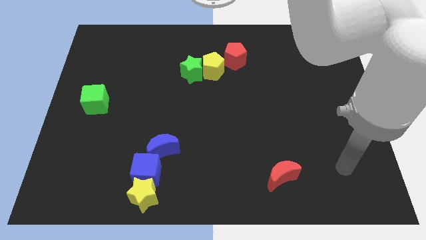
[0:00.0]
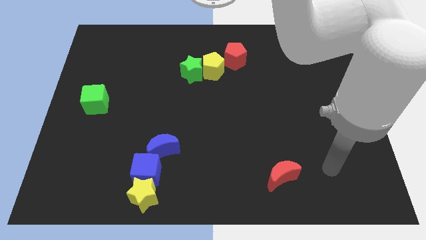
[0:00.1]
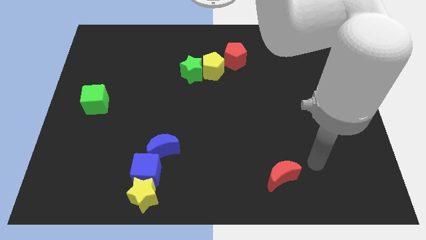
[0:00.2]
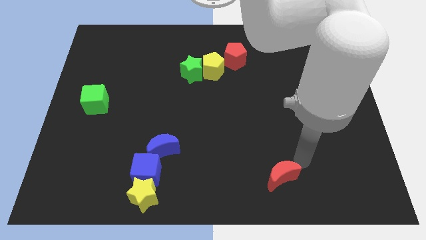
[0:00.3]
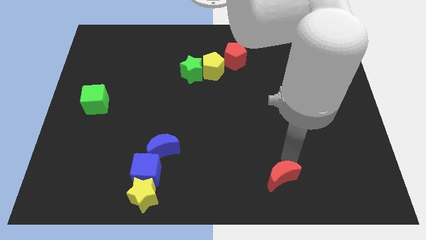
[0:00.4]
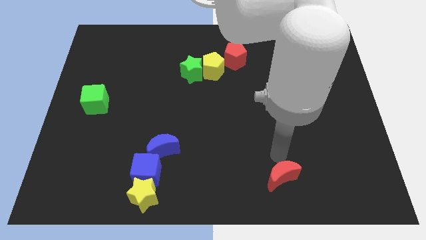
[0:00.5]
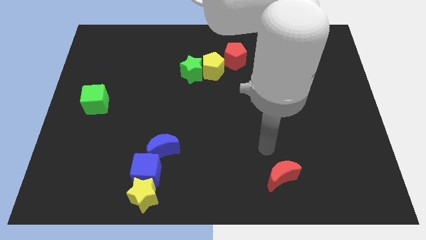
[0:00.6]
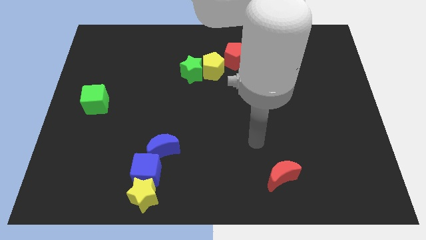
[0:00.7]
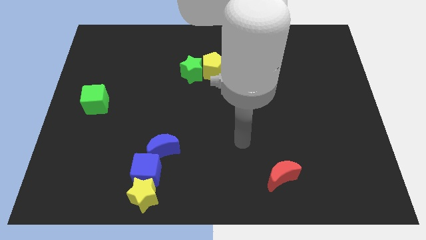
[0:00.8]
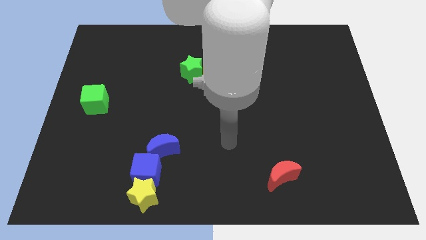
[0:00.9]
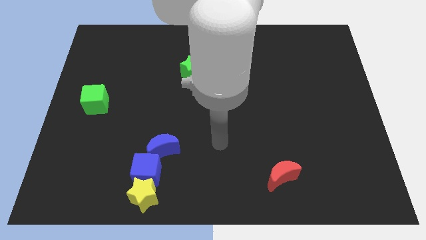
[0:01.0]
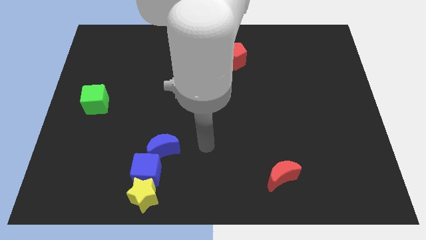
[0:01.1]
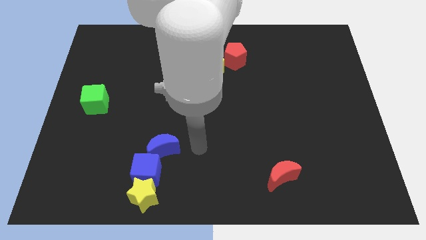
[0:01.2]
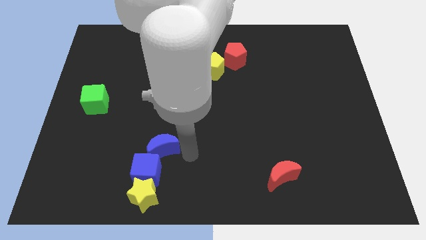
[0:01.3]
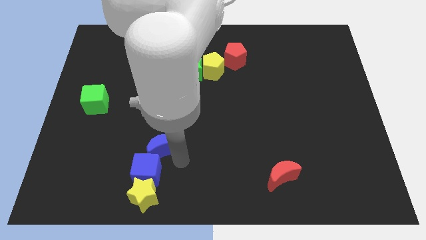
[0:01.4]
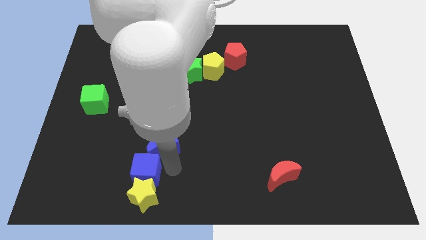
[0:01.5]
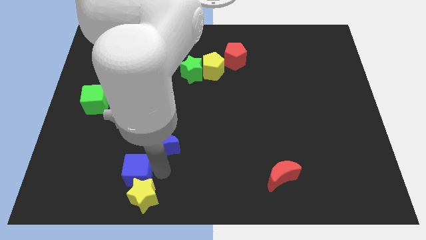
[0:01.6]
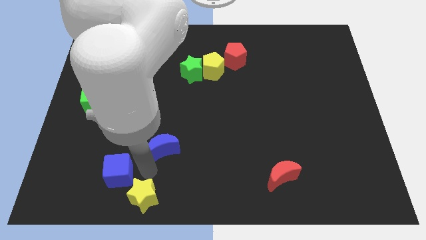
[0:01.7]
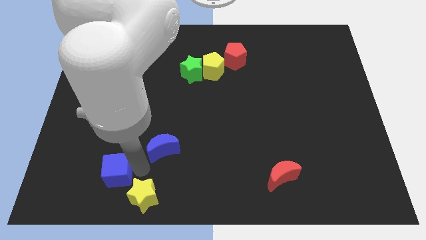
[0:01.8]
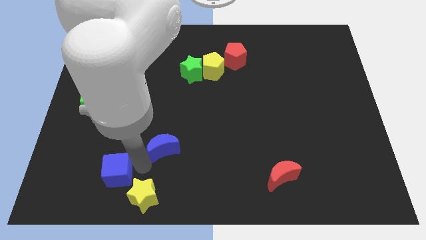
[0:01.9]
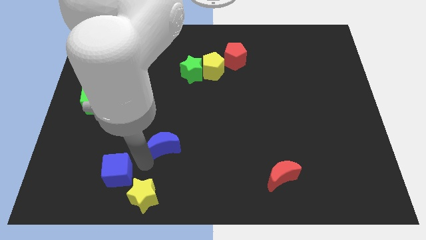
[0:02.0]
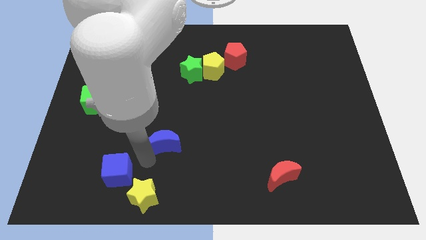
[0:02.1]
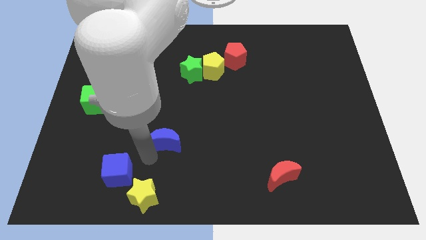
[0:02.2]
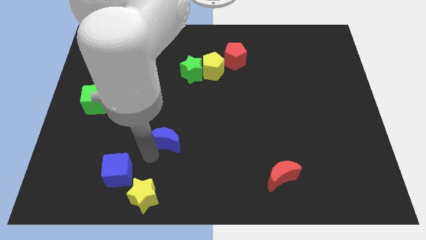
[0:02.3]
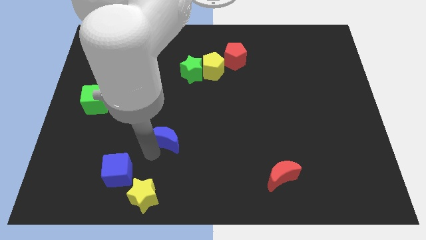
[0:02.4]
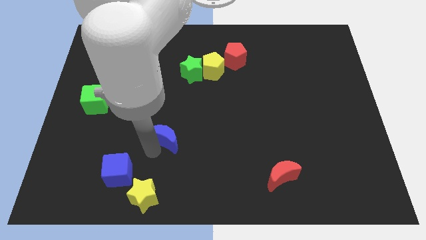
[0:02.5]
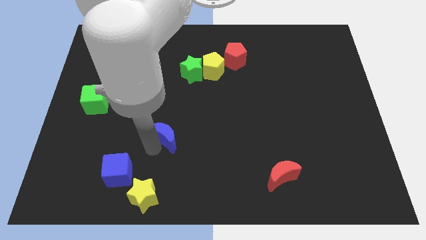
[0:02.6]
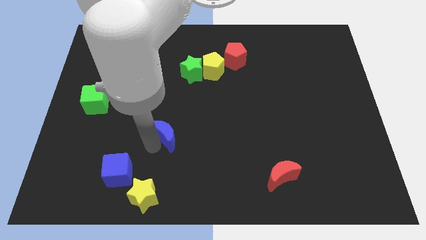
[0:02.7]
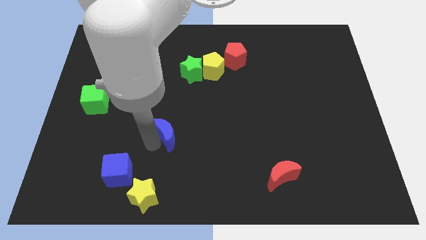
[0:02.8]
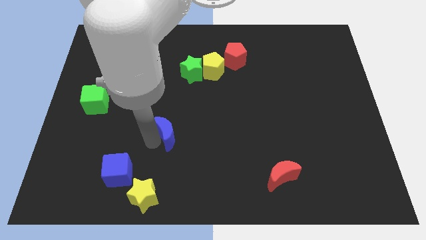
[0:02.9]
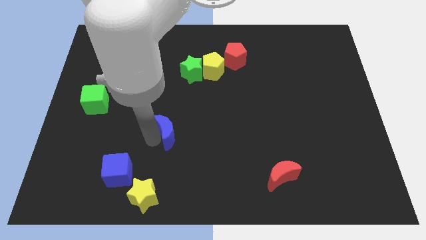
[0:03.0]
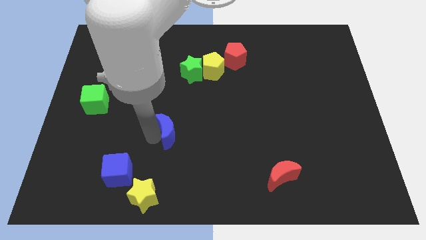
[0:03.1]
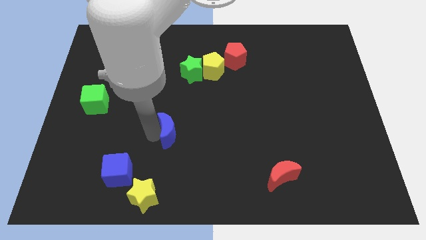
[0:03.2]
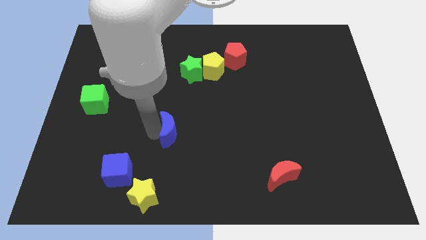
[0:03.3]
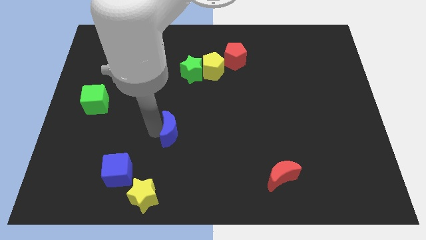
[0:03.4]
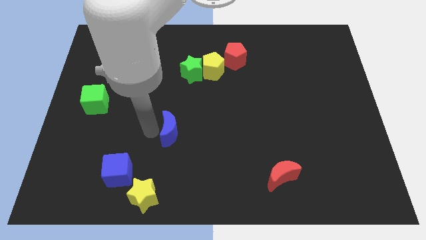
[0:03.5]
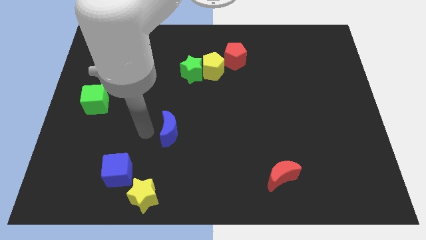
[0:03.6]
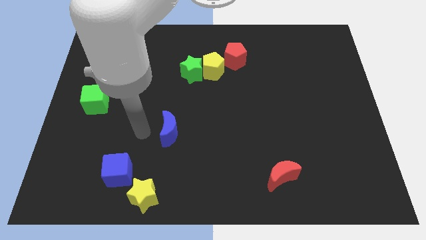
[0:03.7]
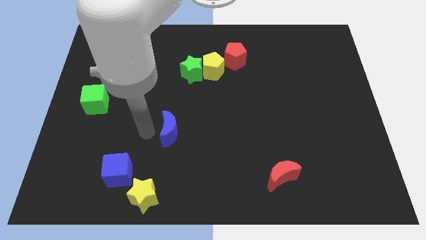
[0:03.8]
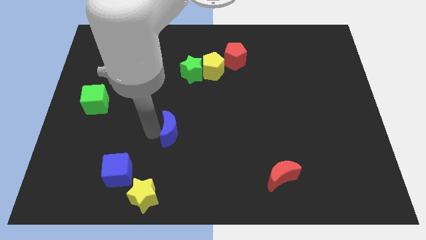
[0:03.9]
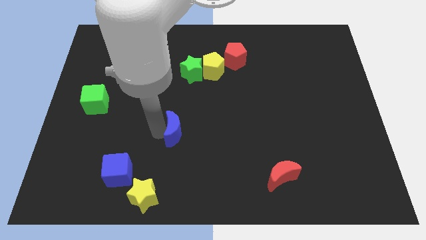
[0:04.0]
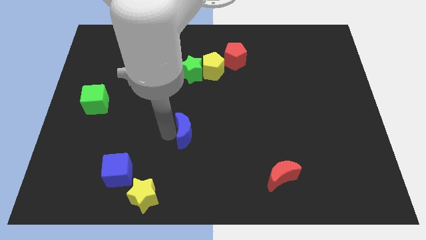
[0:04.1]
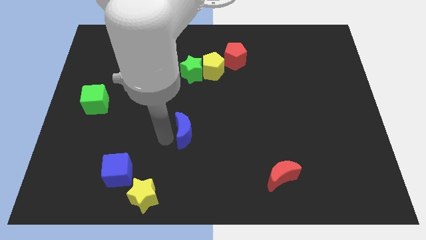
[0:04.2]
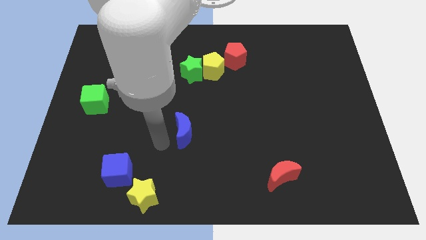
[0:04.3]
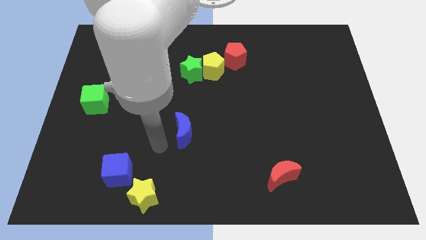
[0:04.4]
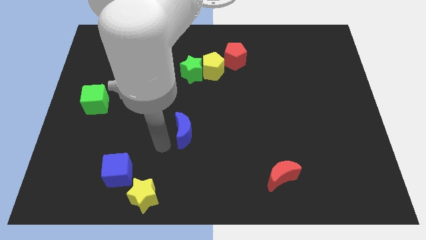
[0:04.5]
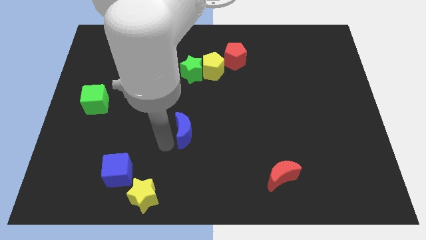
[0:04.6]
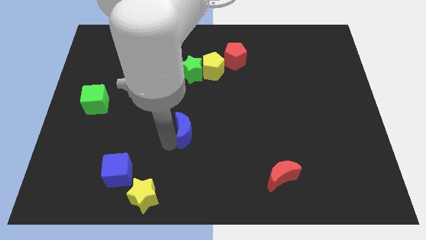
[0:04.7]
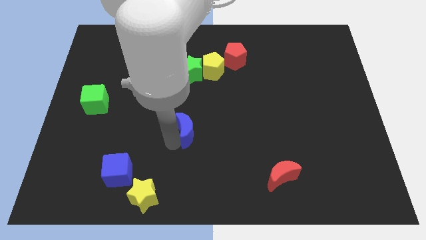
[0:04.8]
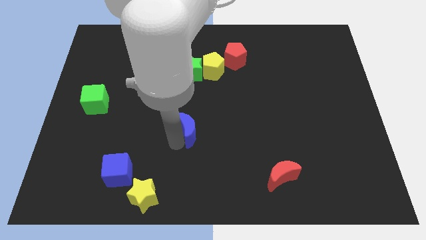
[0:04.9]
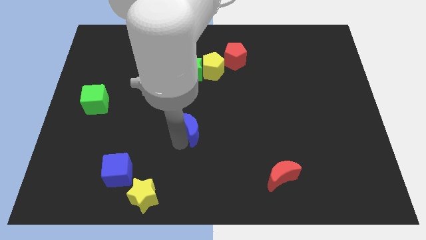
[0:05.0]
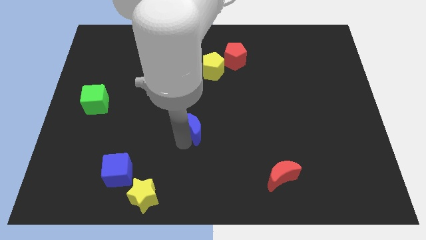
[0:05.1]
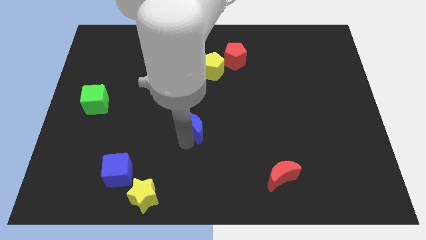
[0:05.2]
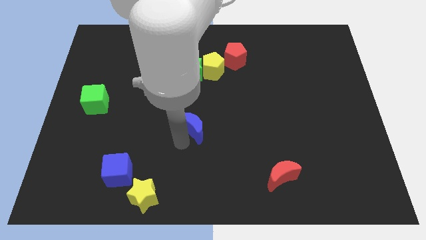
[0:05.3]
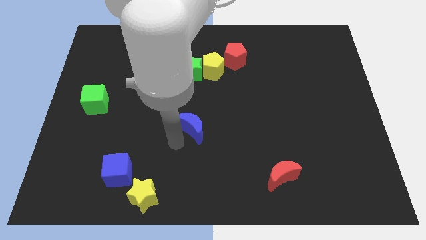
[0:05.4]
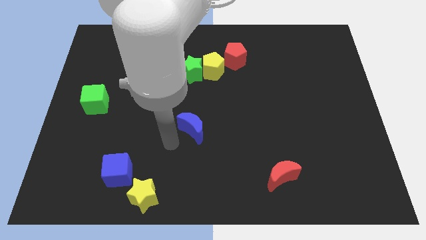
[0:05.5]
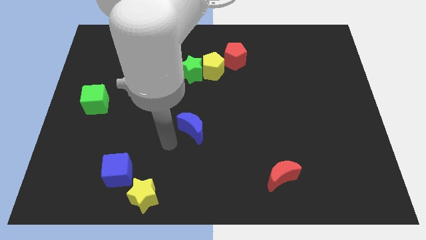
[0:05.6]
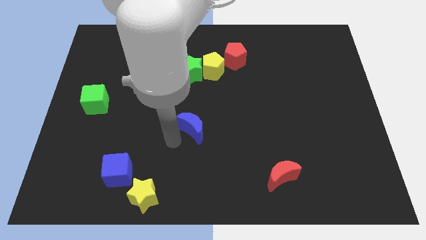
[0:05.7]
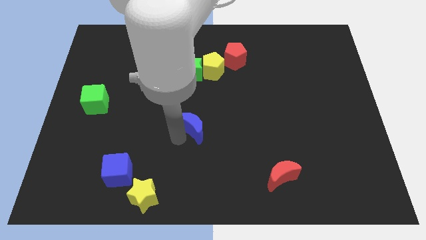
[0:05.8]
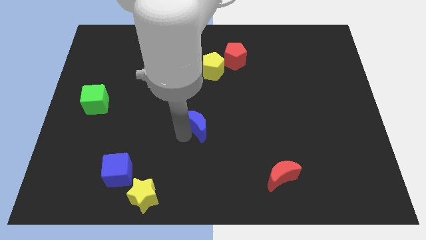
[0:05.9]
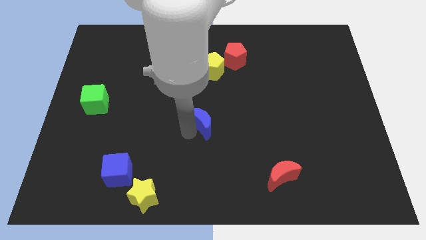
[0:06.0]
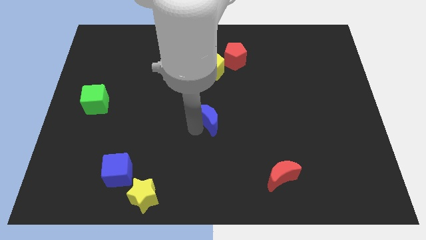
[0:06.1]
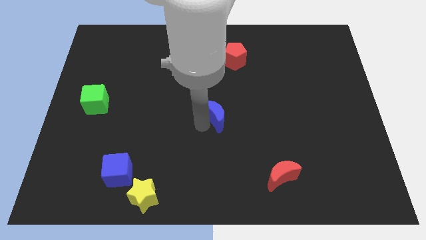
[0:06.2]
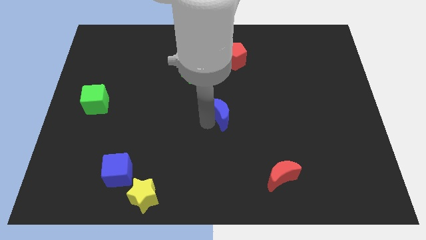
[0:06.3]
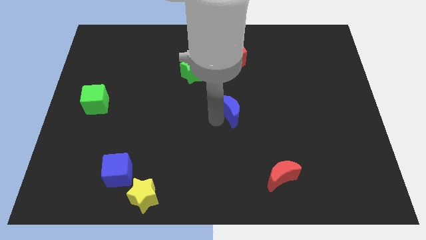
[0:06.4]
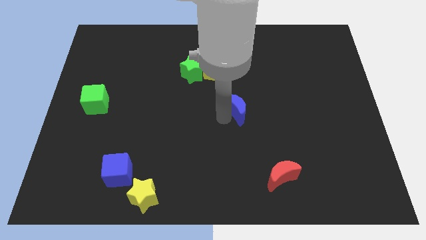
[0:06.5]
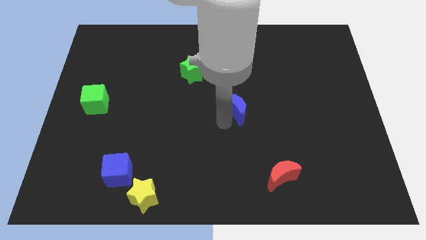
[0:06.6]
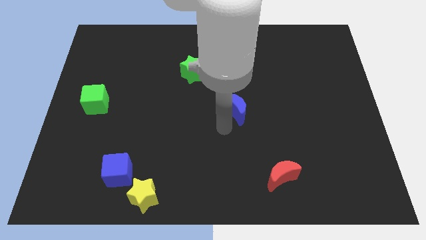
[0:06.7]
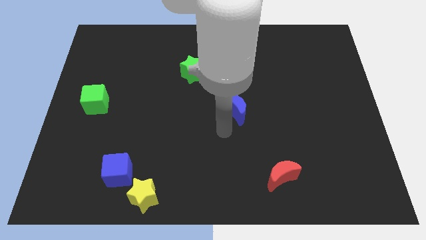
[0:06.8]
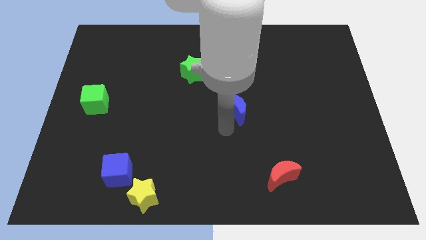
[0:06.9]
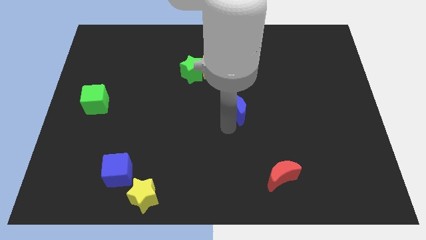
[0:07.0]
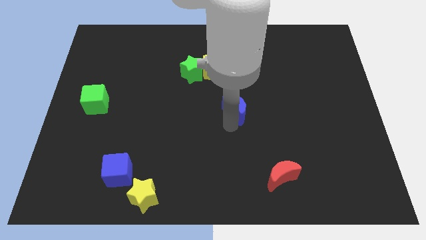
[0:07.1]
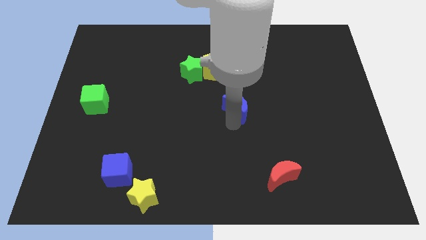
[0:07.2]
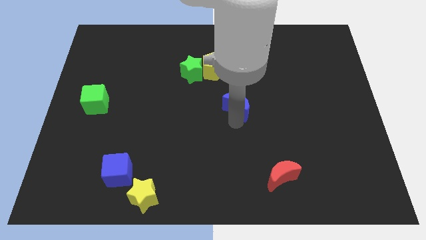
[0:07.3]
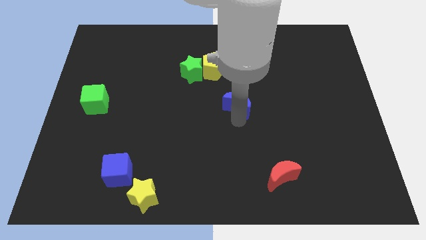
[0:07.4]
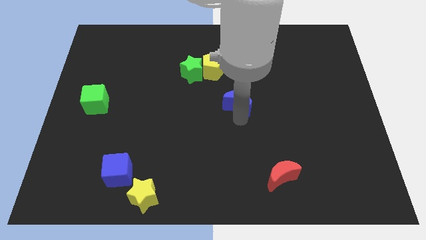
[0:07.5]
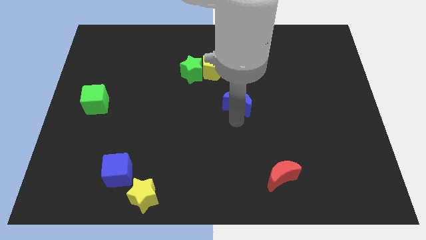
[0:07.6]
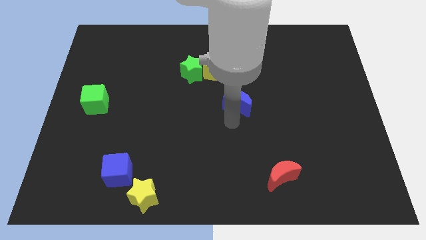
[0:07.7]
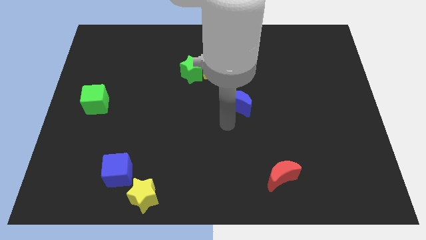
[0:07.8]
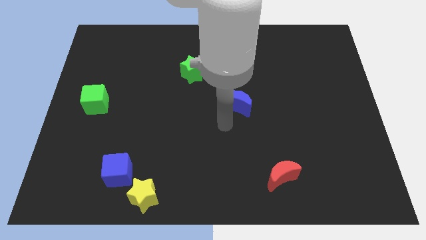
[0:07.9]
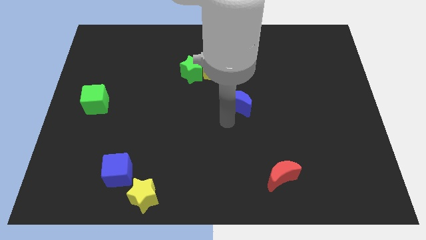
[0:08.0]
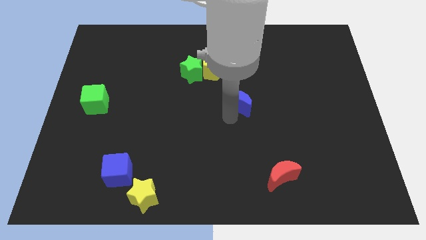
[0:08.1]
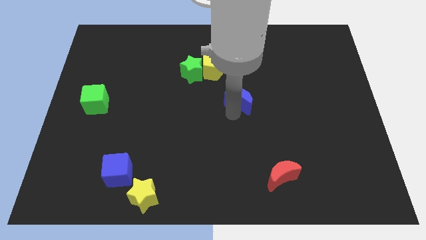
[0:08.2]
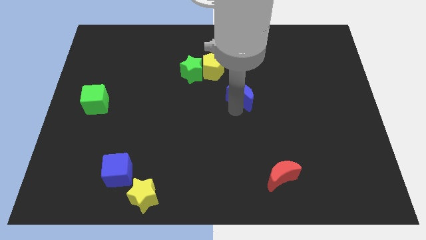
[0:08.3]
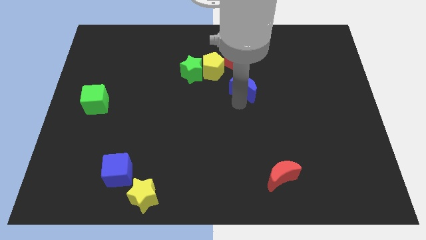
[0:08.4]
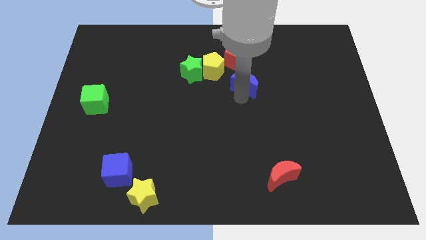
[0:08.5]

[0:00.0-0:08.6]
push the blue moon to the bottom right of the red pentagon
